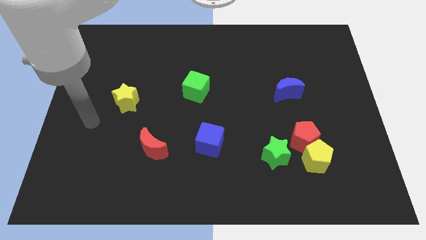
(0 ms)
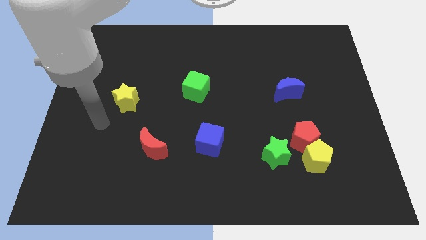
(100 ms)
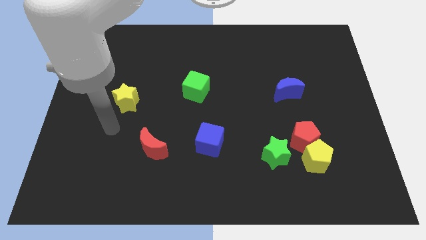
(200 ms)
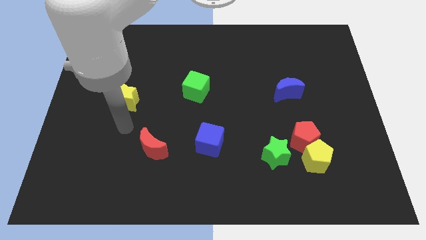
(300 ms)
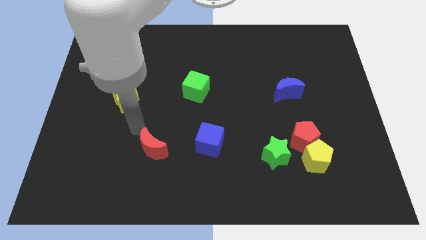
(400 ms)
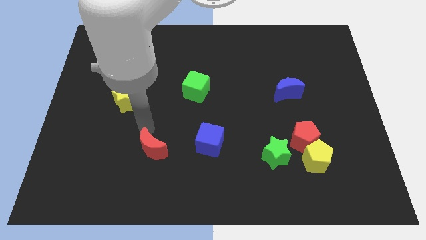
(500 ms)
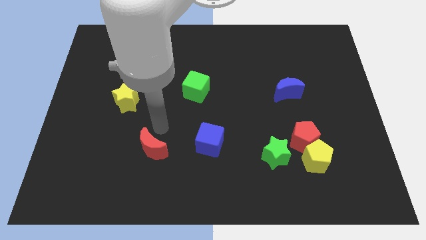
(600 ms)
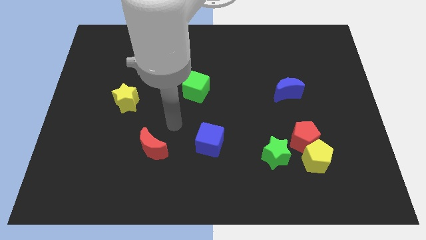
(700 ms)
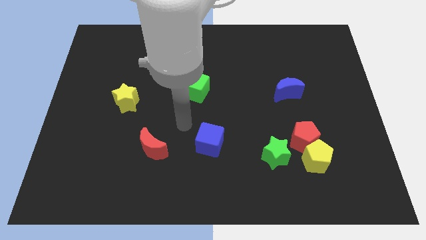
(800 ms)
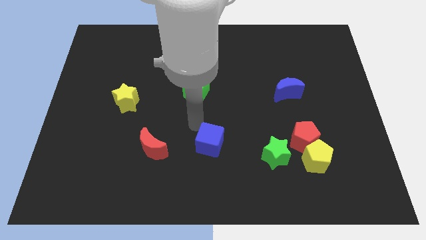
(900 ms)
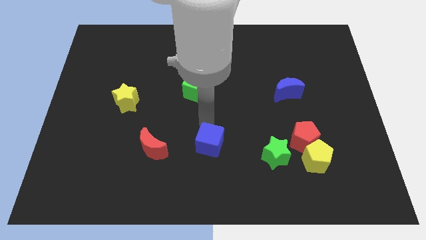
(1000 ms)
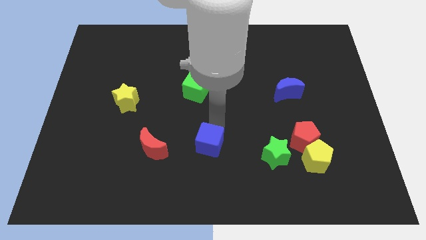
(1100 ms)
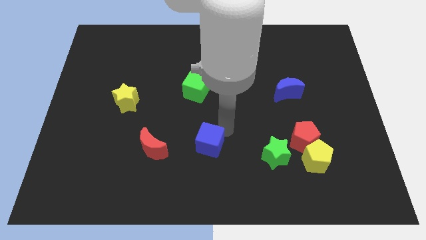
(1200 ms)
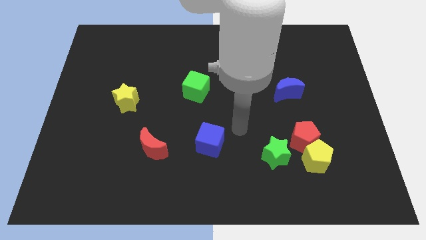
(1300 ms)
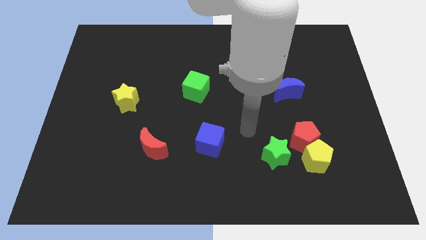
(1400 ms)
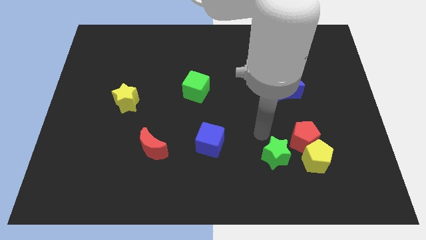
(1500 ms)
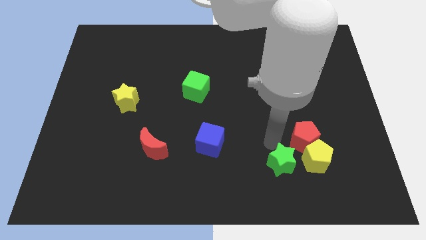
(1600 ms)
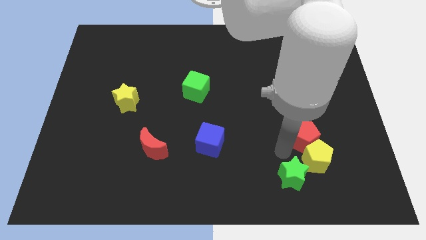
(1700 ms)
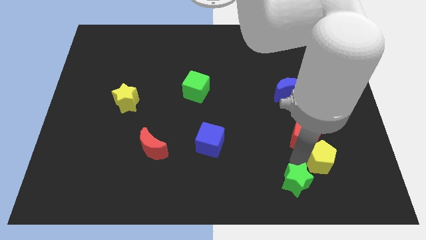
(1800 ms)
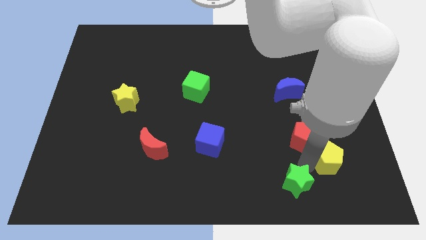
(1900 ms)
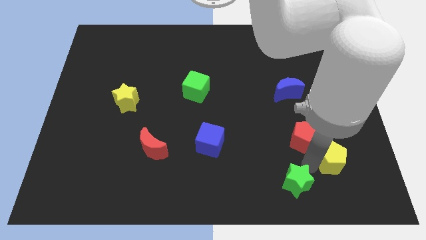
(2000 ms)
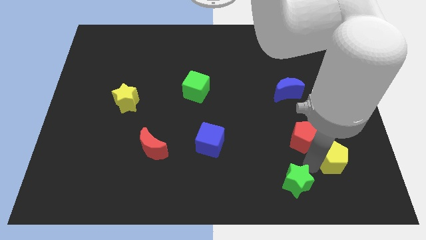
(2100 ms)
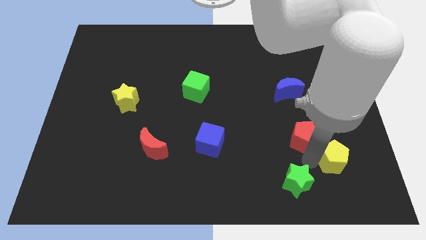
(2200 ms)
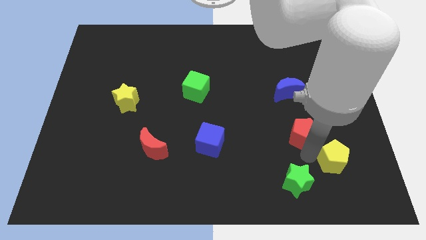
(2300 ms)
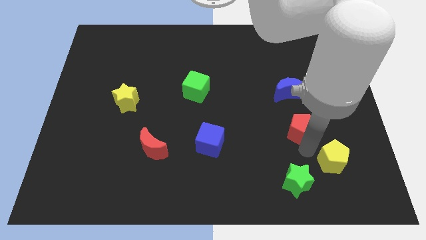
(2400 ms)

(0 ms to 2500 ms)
move the red pentagon away from the yellow pentagon and green star

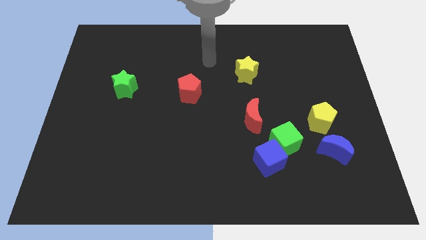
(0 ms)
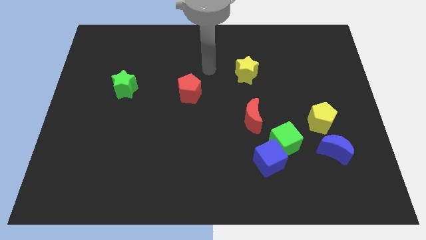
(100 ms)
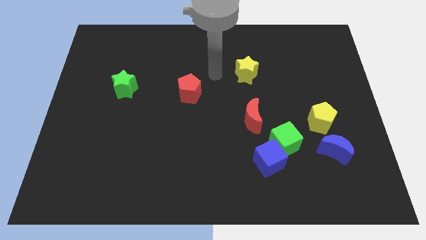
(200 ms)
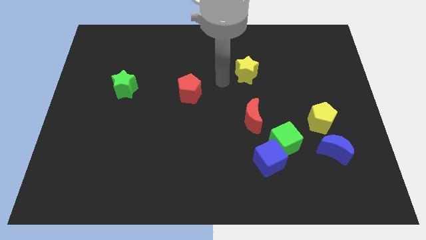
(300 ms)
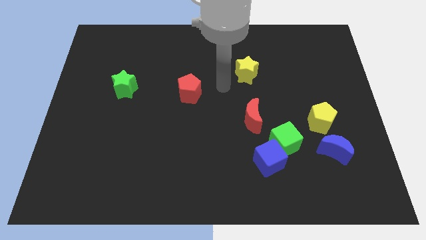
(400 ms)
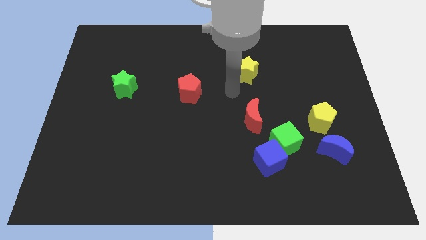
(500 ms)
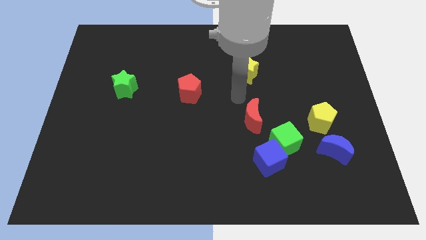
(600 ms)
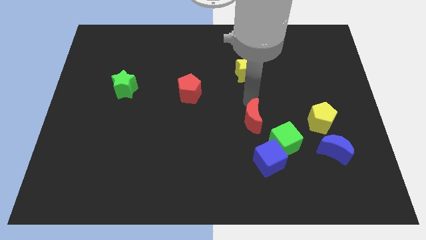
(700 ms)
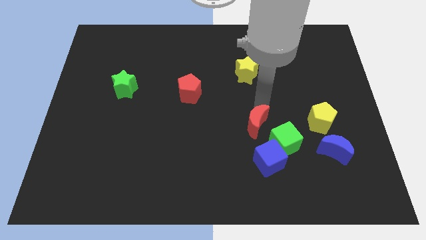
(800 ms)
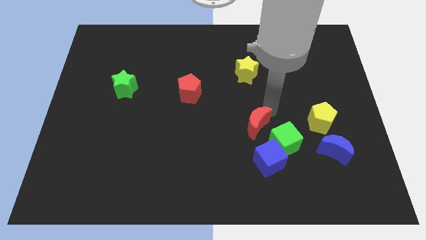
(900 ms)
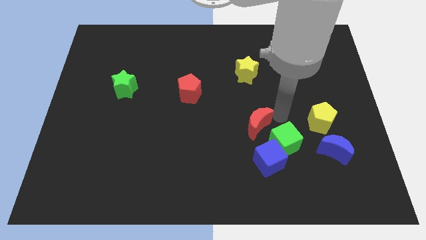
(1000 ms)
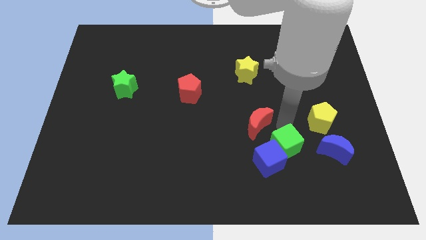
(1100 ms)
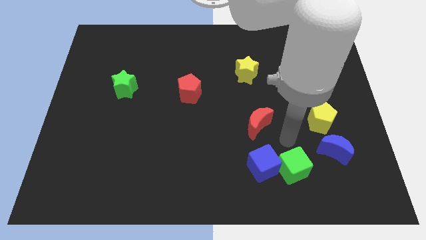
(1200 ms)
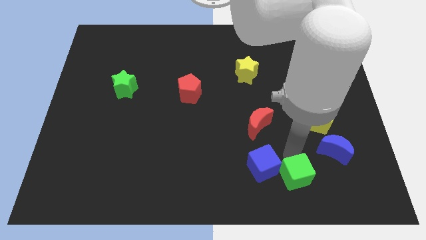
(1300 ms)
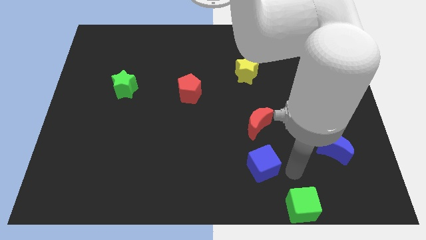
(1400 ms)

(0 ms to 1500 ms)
separate the blue cube from the green cube

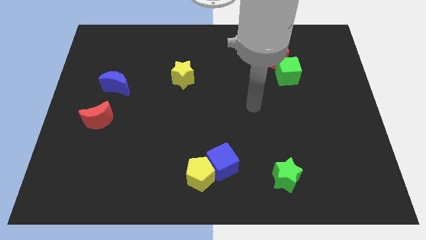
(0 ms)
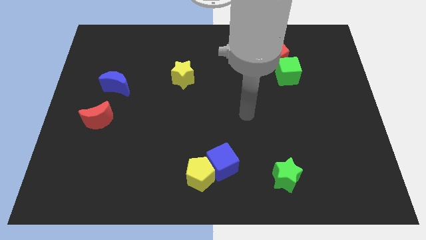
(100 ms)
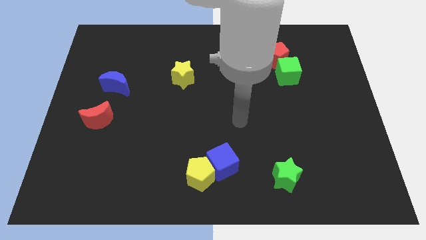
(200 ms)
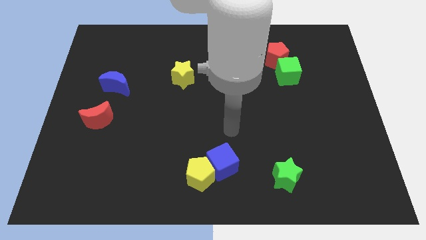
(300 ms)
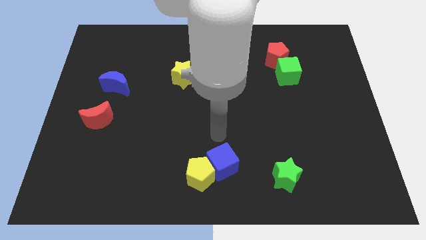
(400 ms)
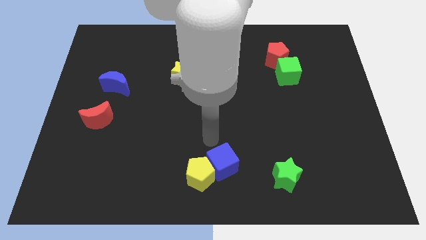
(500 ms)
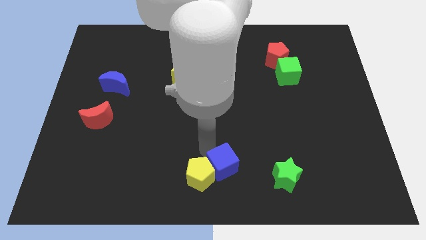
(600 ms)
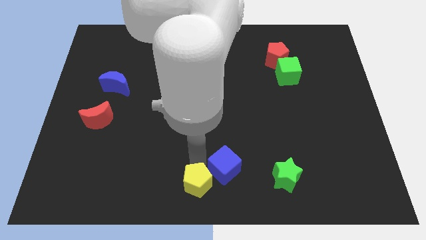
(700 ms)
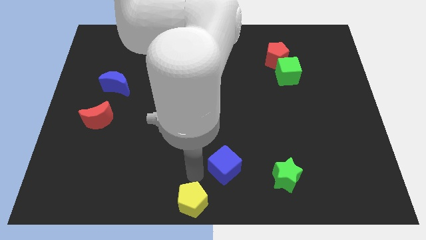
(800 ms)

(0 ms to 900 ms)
move the blue cube away from the yellow pentagon

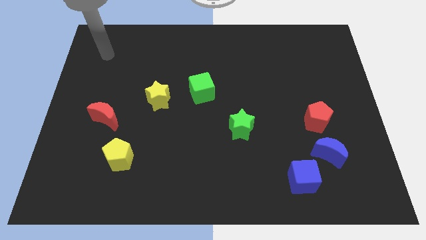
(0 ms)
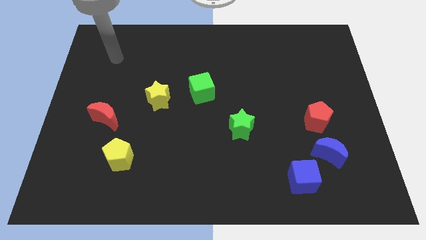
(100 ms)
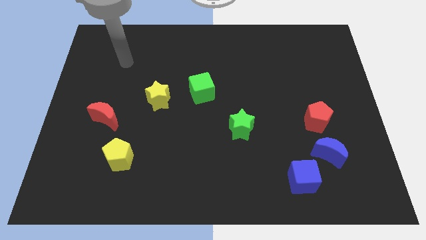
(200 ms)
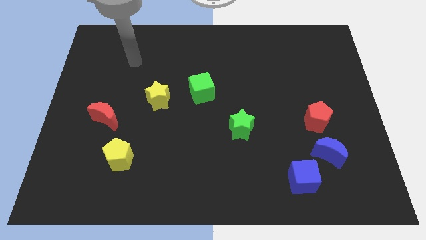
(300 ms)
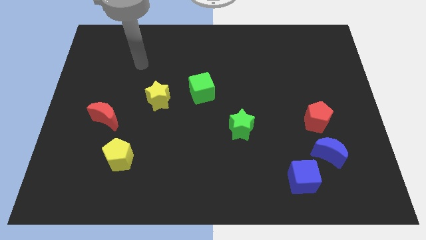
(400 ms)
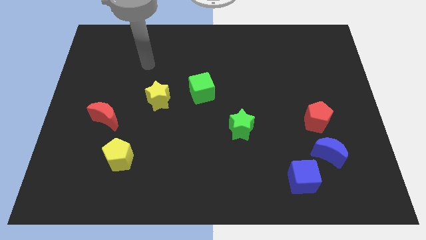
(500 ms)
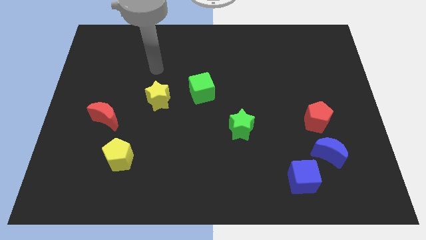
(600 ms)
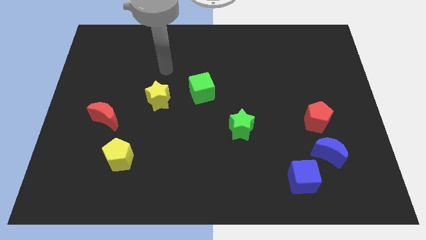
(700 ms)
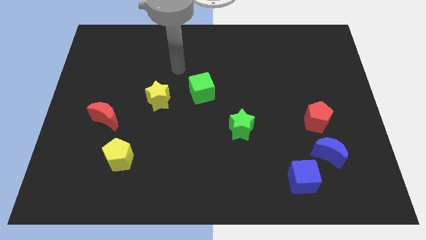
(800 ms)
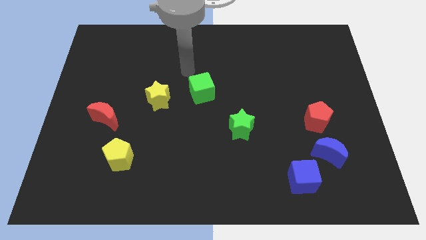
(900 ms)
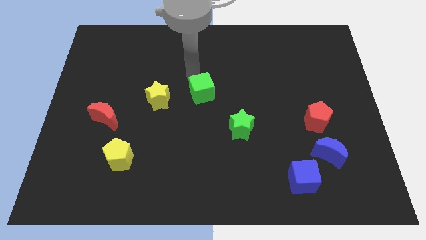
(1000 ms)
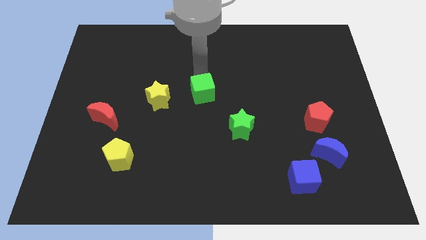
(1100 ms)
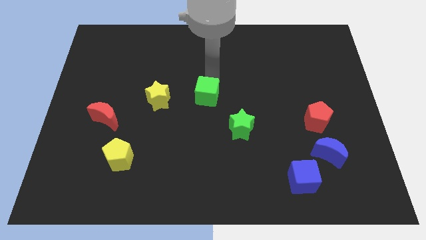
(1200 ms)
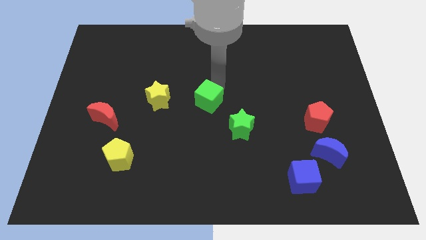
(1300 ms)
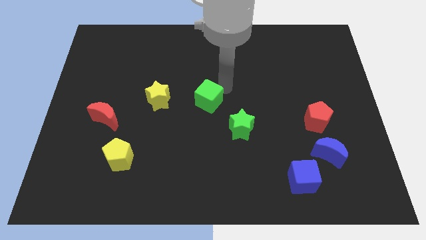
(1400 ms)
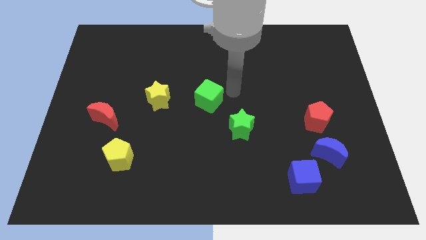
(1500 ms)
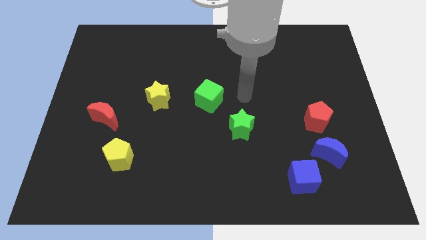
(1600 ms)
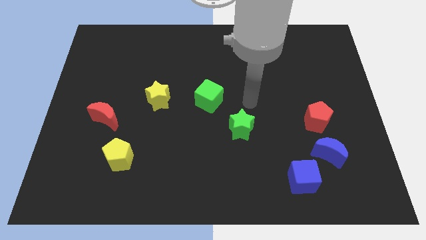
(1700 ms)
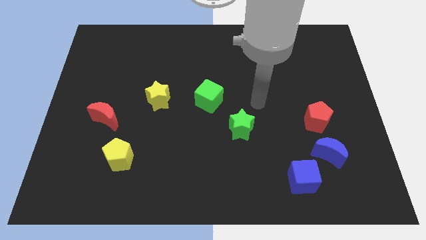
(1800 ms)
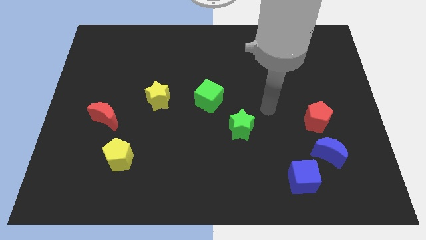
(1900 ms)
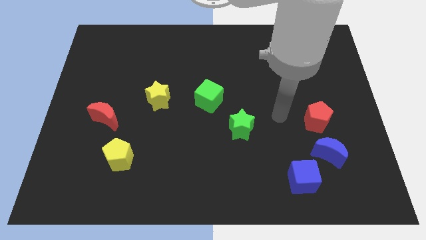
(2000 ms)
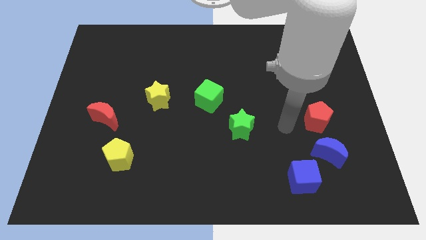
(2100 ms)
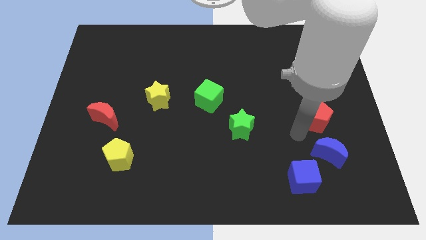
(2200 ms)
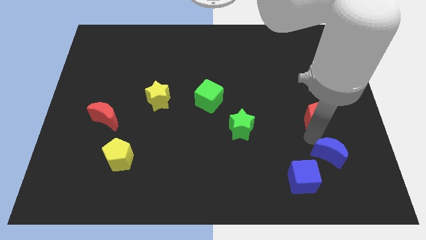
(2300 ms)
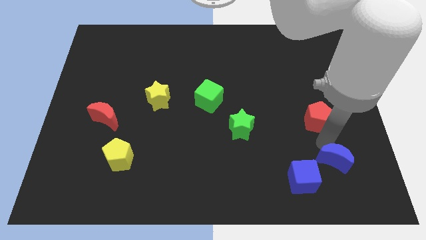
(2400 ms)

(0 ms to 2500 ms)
separate the red pentagon from the blue moon

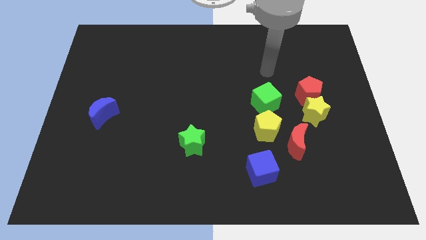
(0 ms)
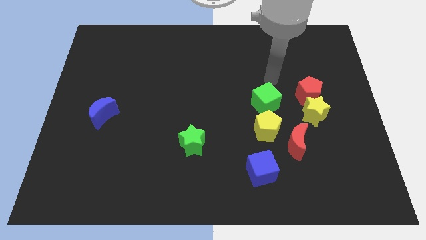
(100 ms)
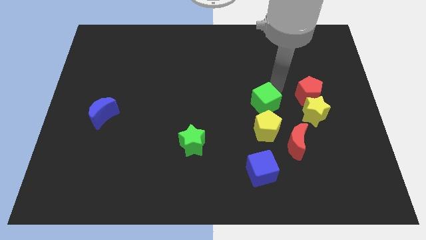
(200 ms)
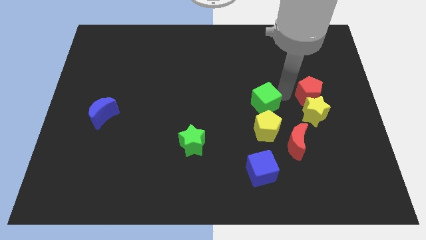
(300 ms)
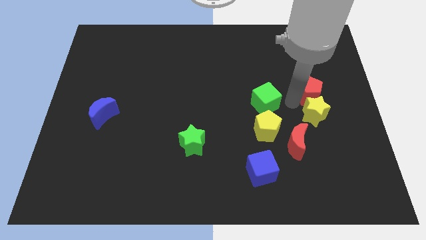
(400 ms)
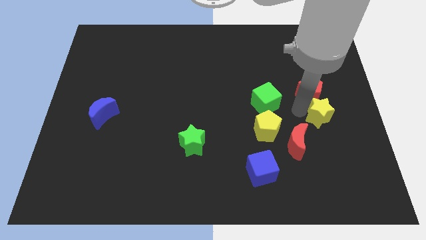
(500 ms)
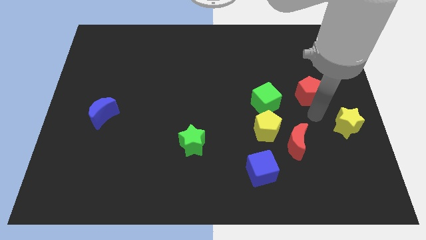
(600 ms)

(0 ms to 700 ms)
separate the red pentagon from the yellow star

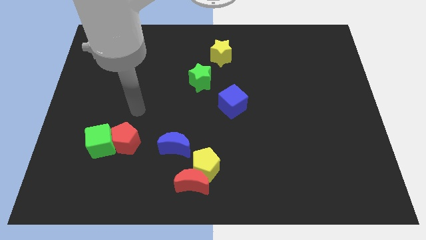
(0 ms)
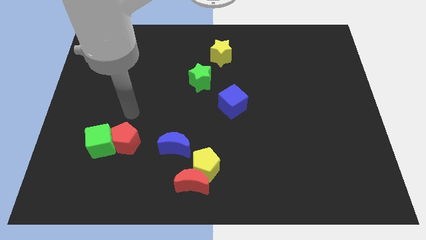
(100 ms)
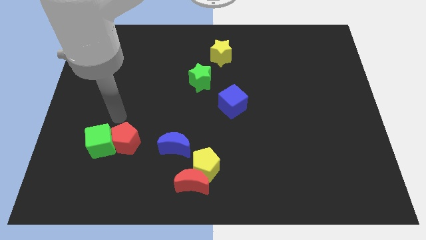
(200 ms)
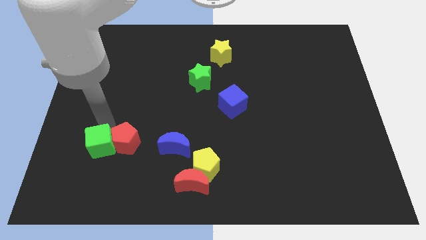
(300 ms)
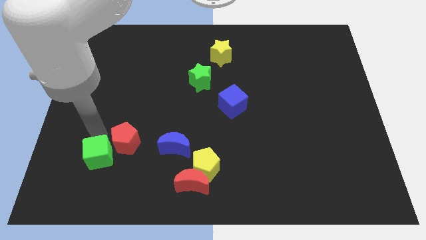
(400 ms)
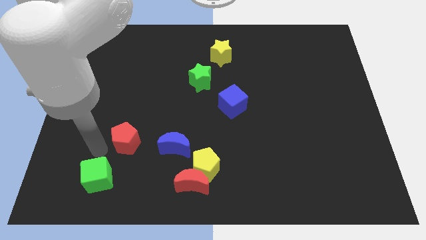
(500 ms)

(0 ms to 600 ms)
separate the red pentagon from the green cube

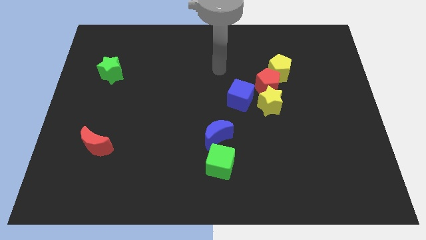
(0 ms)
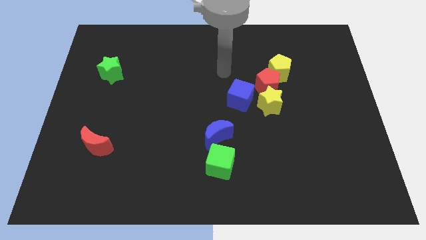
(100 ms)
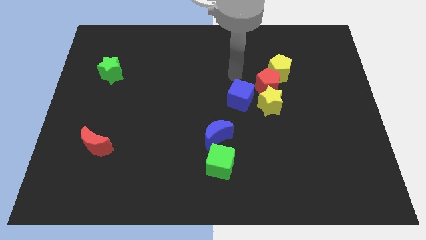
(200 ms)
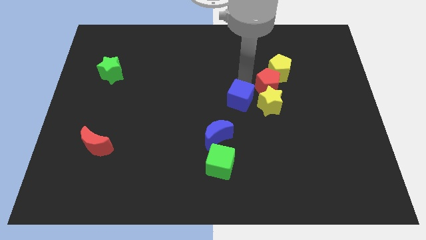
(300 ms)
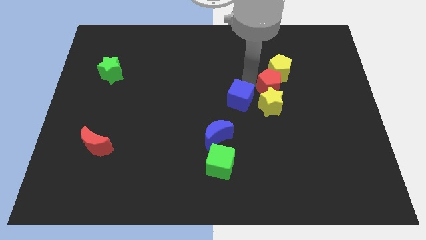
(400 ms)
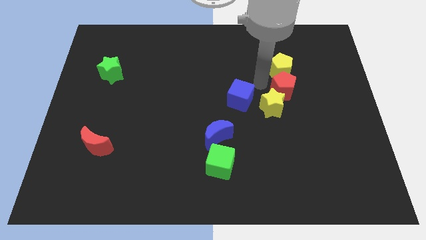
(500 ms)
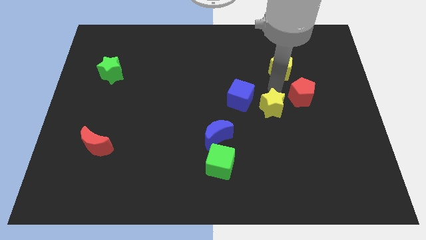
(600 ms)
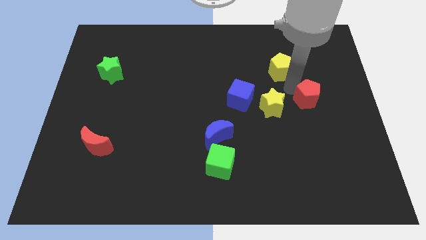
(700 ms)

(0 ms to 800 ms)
separate the yellow pentagon from the red pentagon
